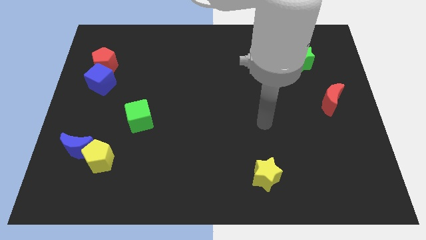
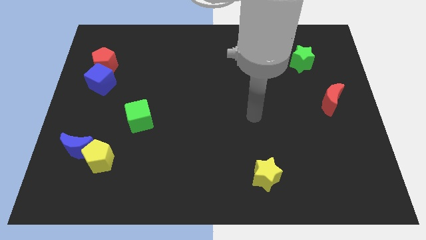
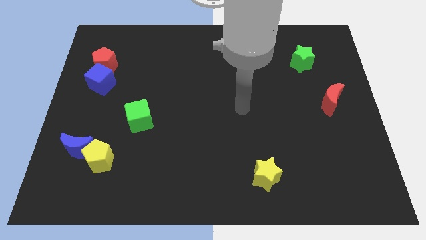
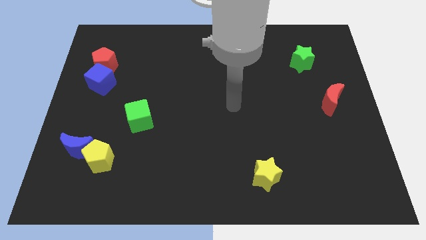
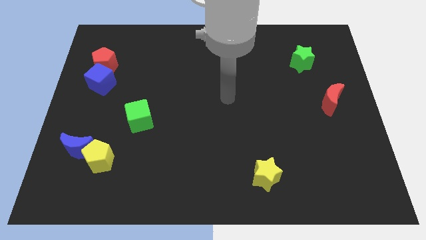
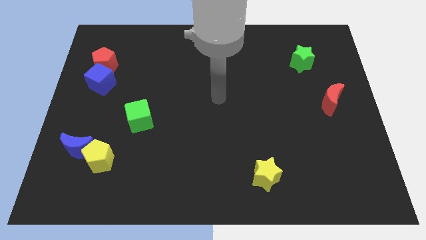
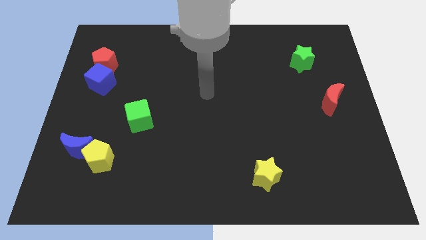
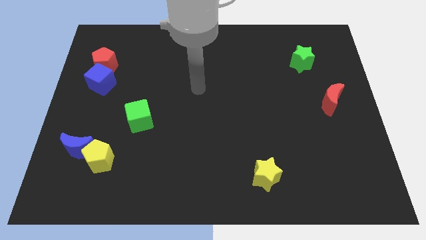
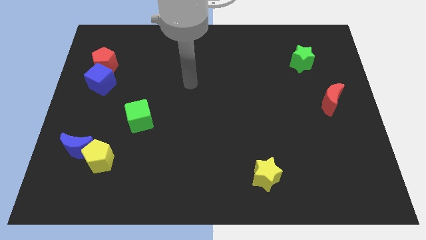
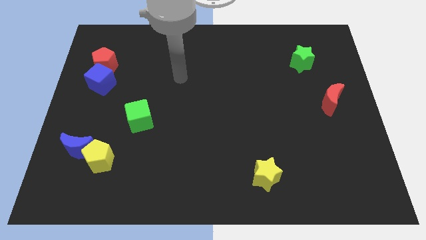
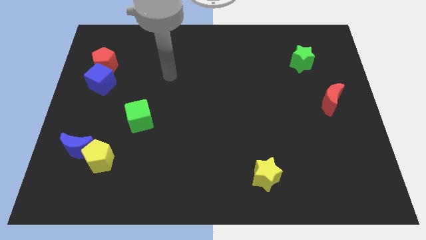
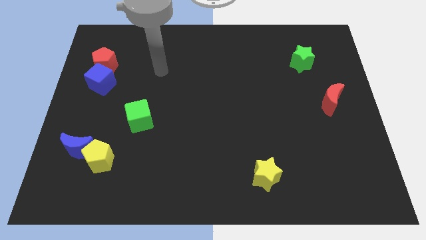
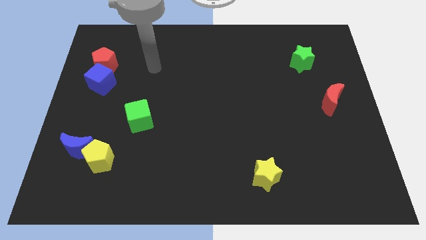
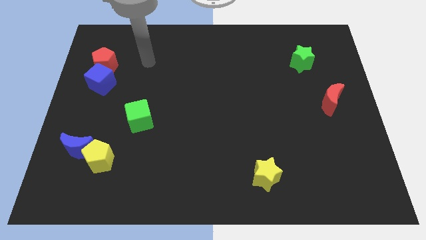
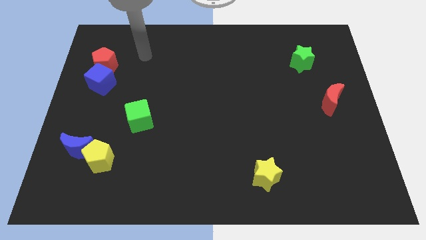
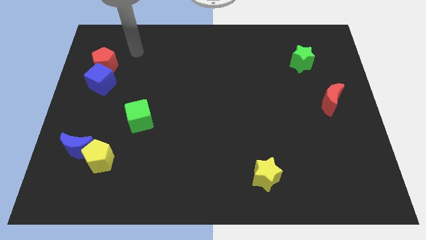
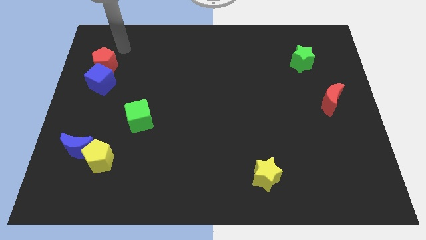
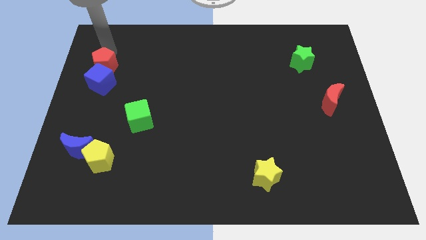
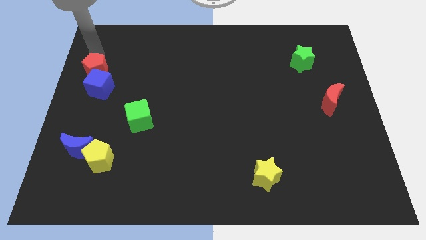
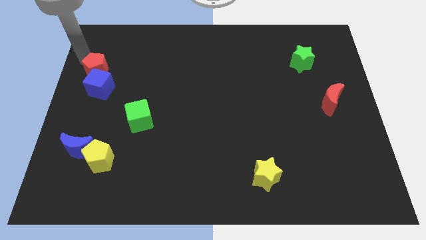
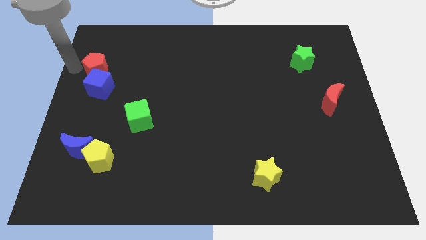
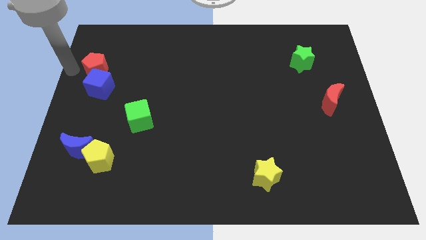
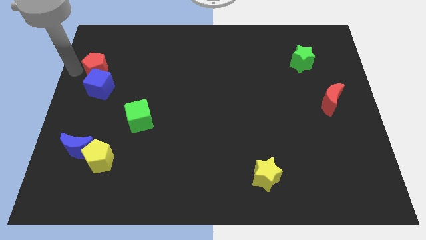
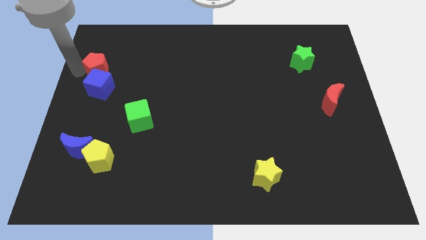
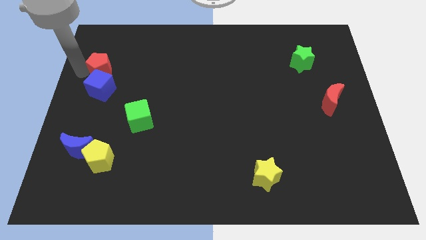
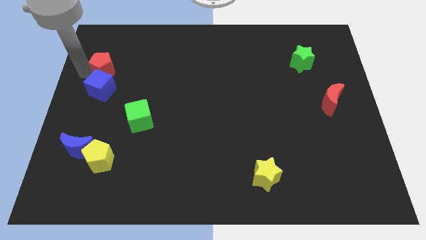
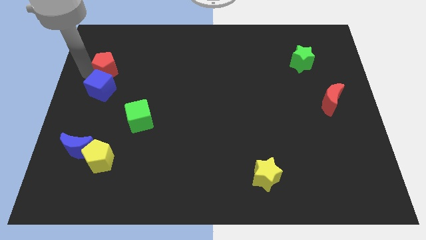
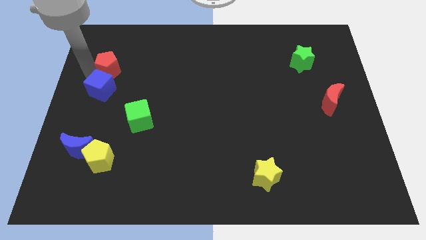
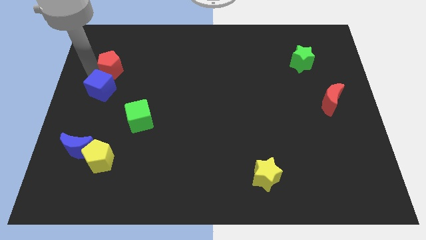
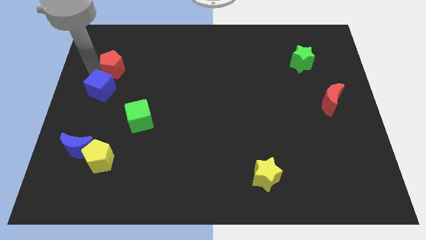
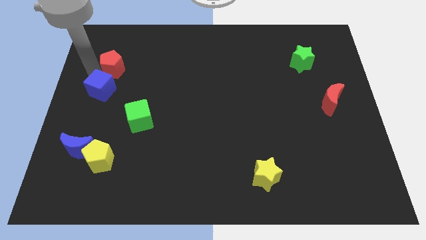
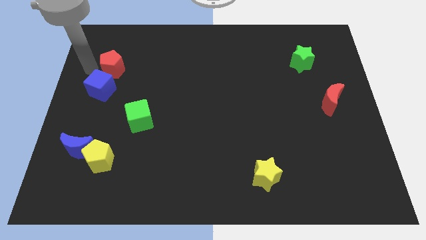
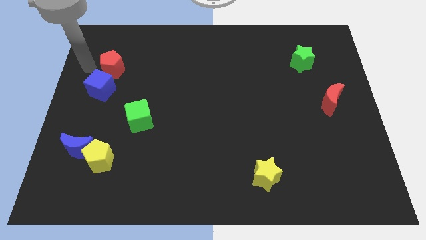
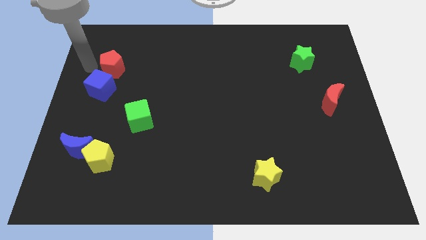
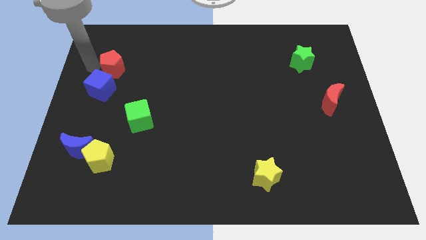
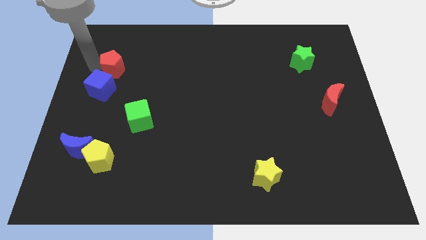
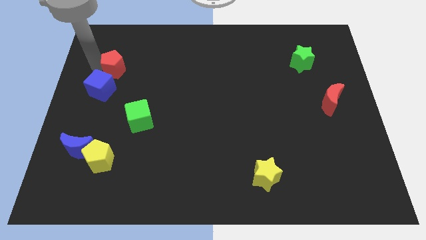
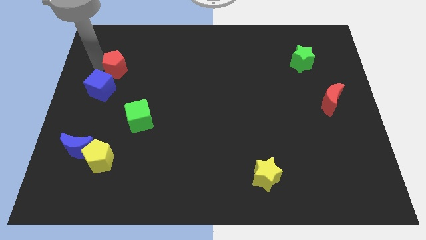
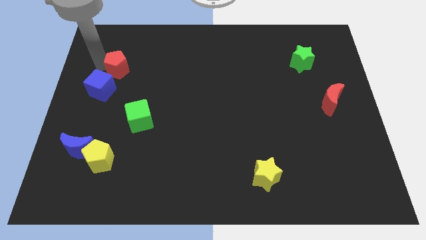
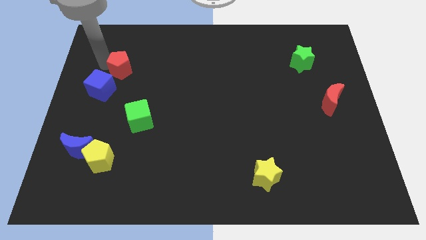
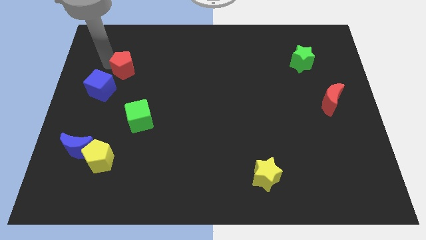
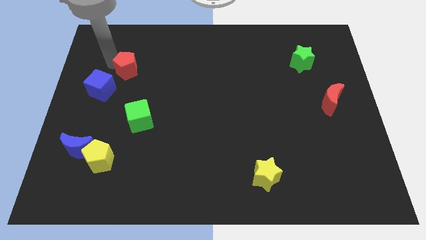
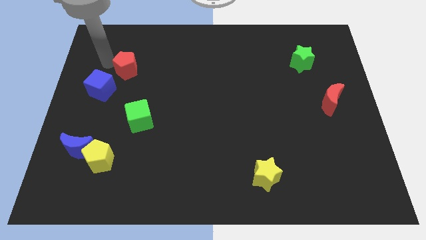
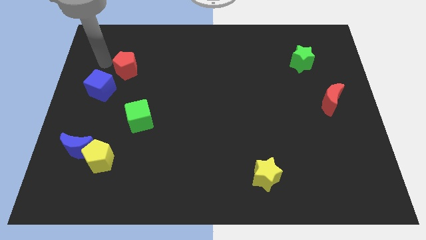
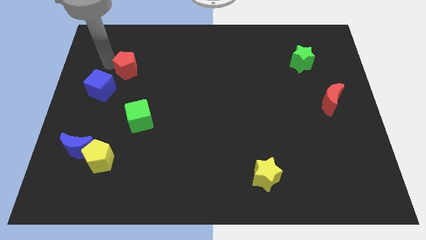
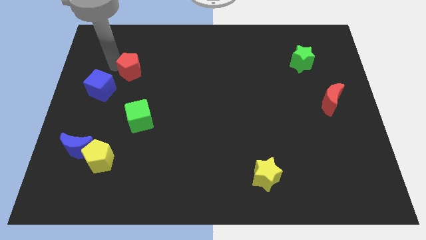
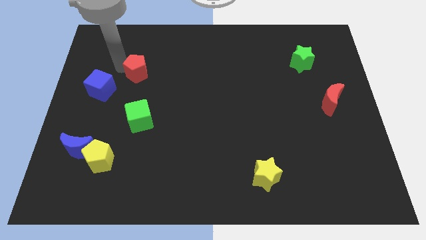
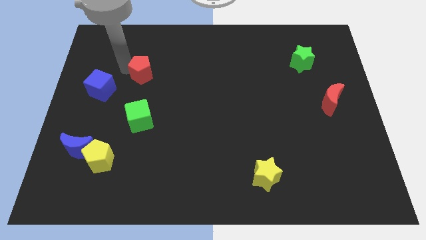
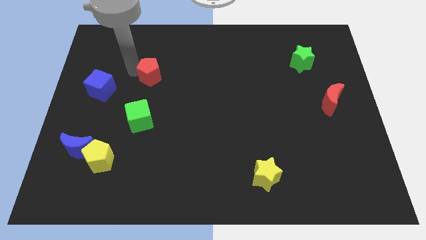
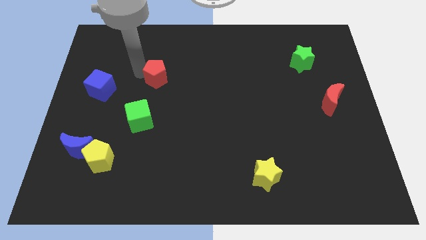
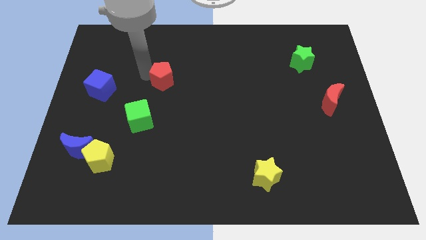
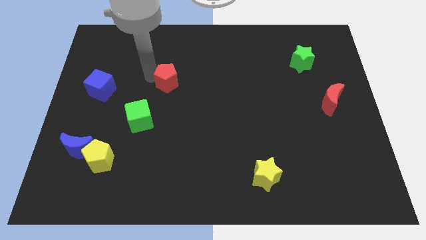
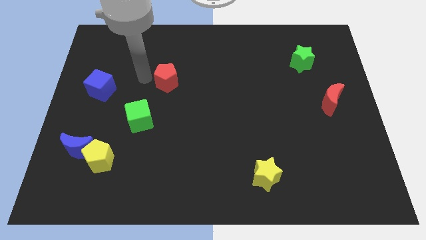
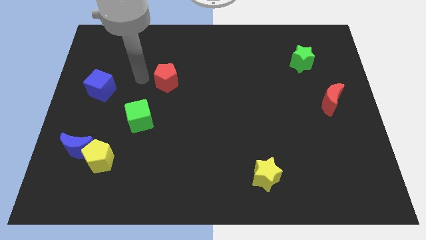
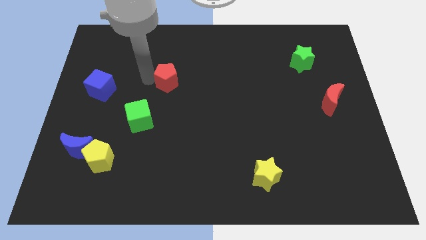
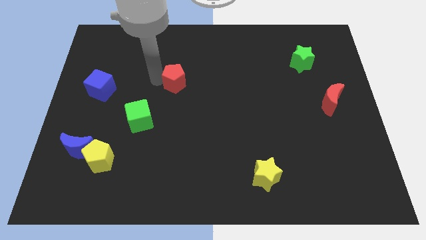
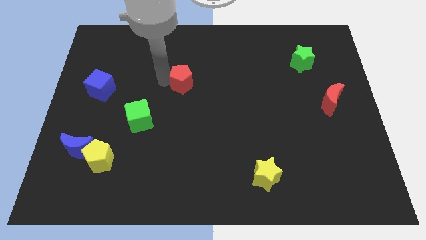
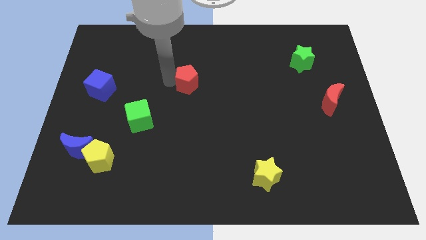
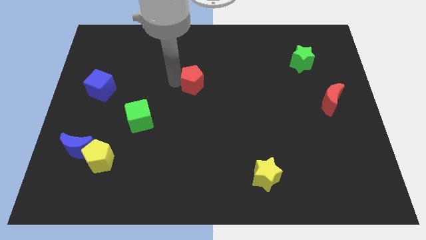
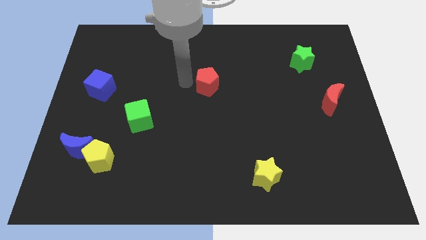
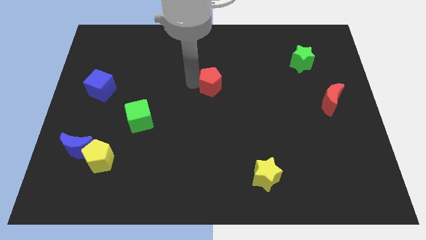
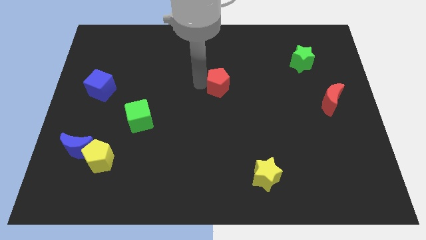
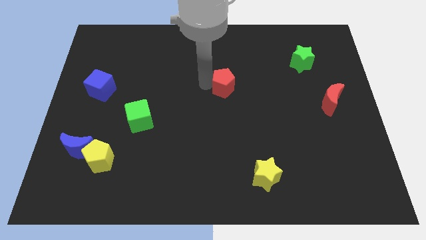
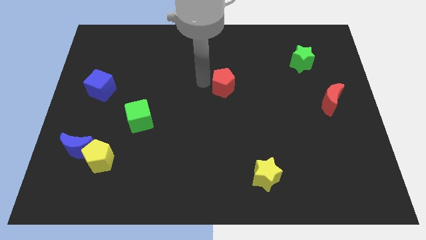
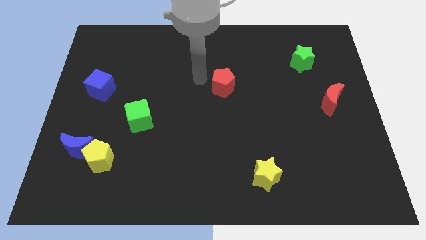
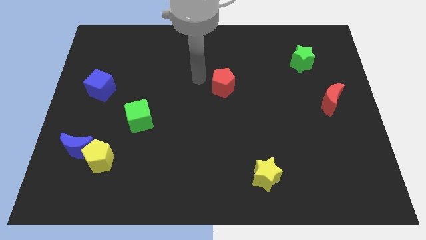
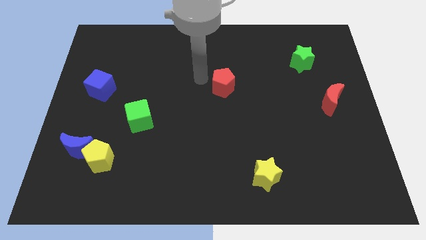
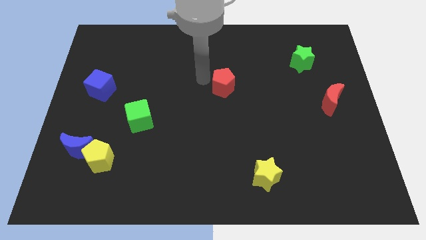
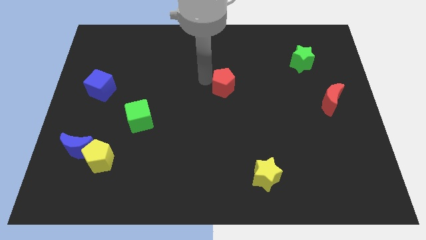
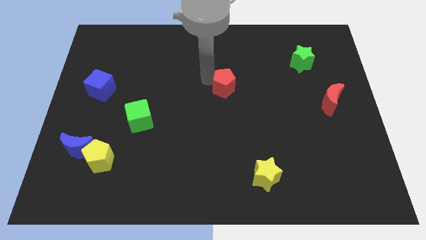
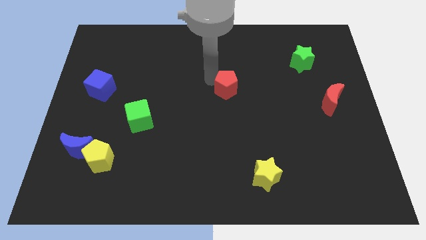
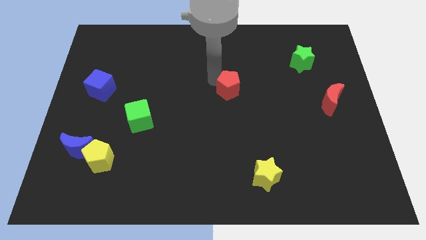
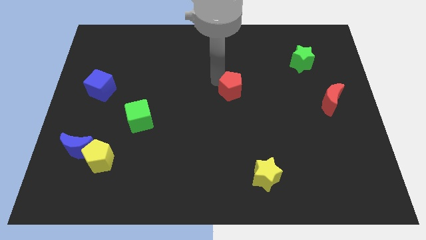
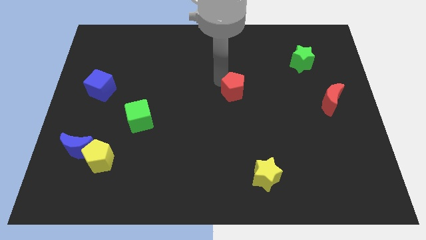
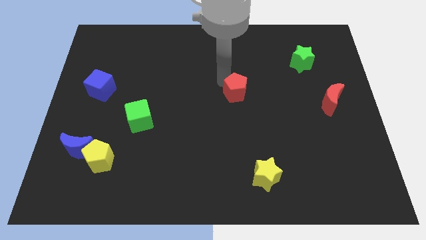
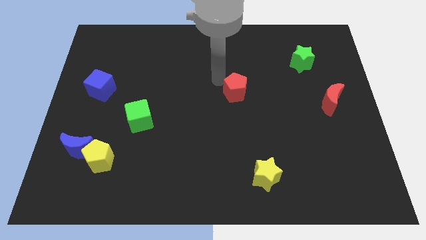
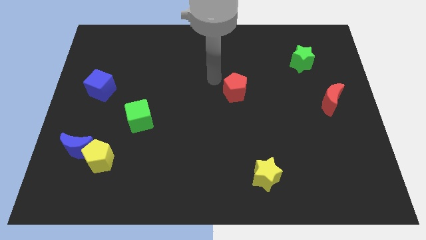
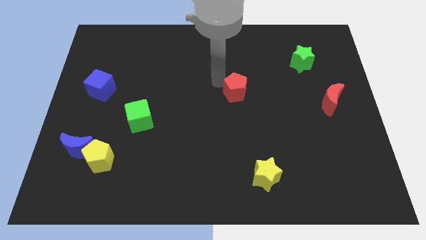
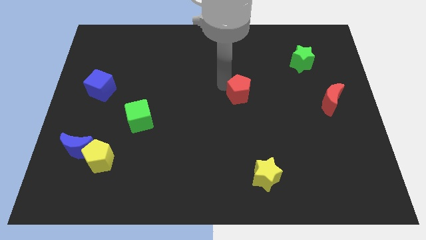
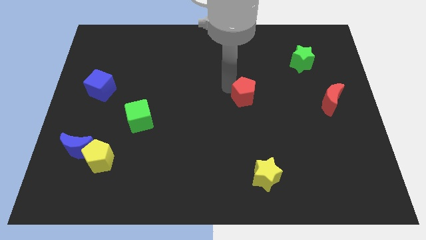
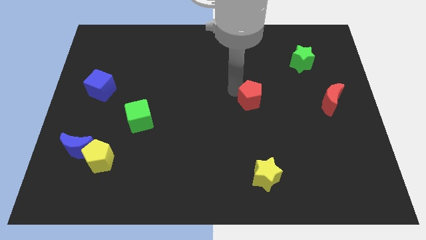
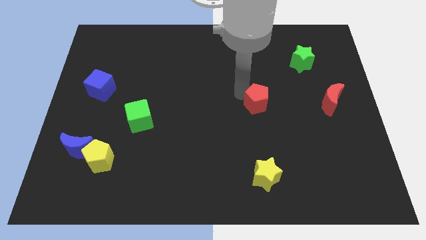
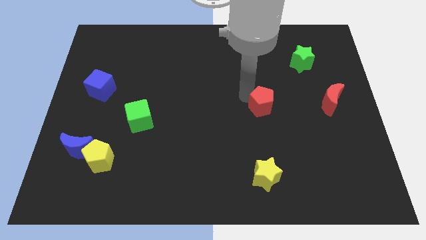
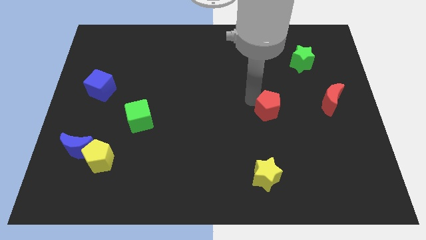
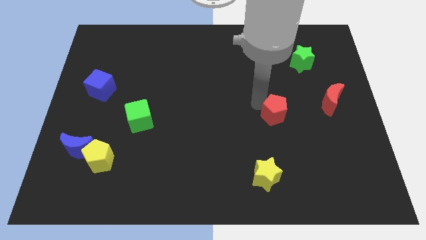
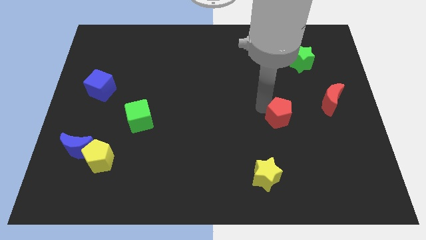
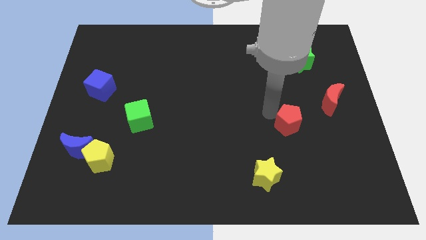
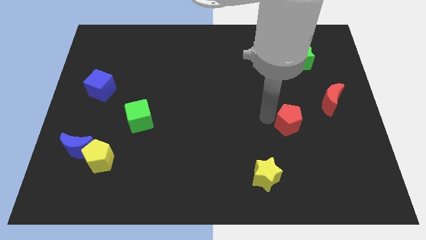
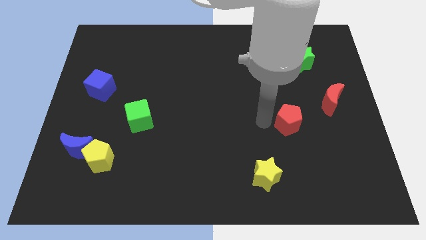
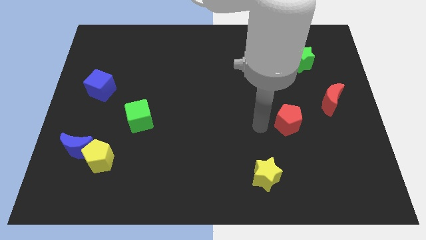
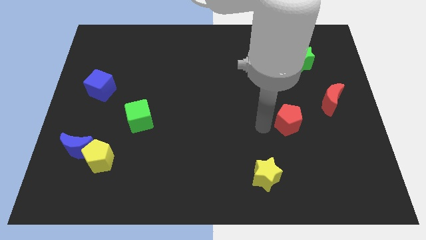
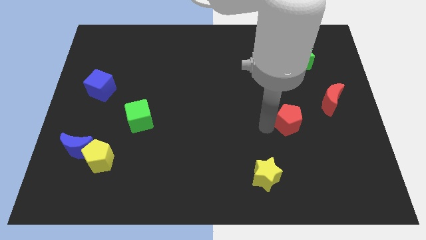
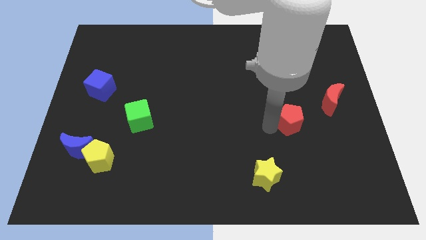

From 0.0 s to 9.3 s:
slide the red pentagon to the bottom left side of the red moon
